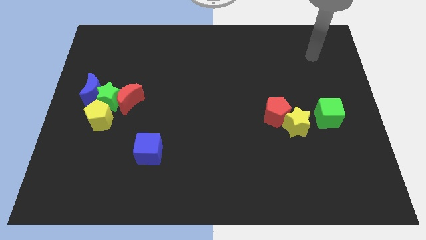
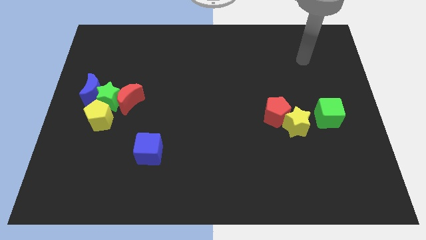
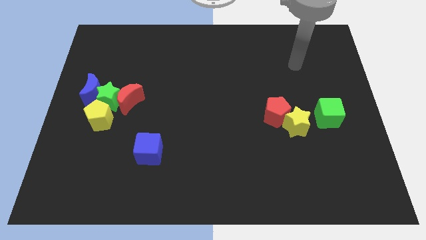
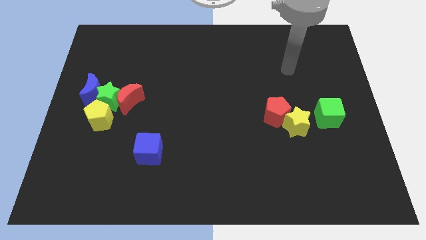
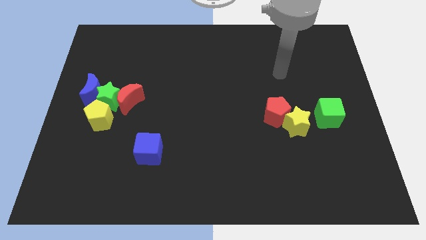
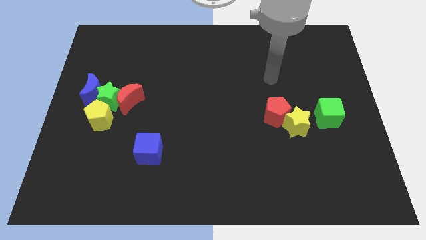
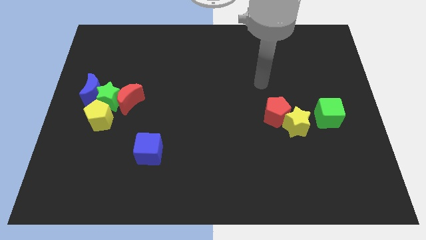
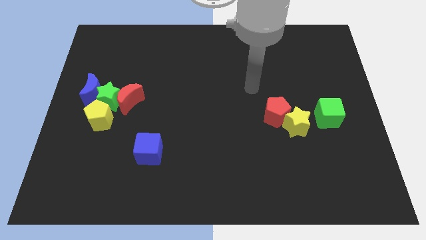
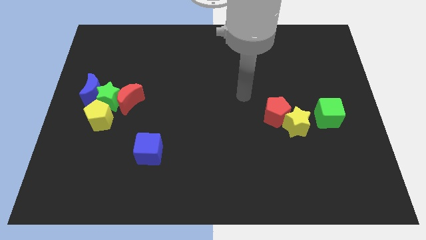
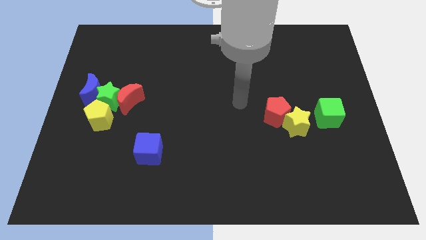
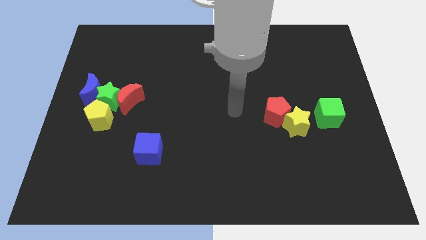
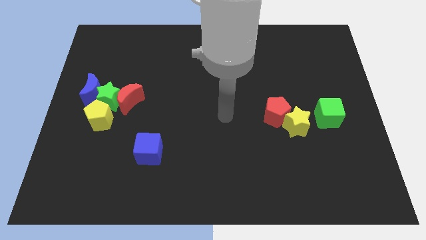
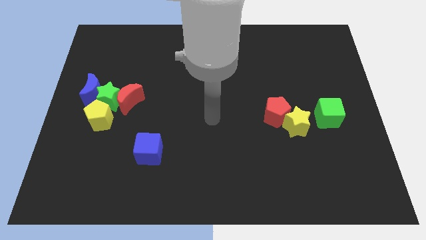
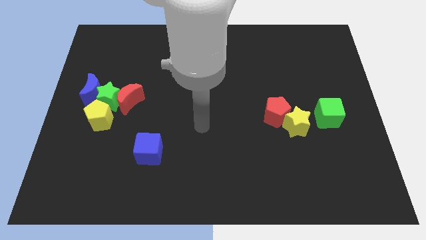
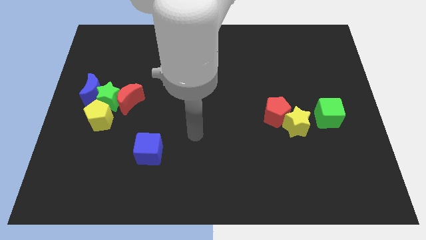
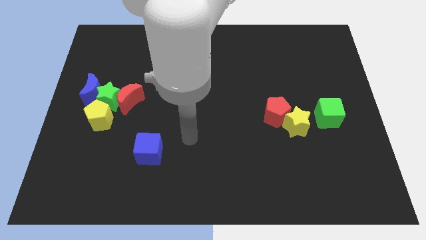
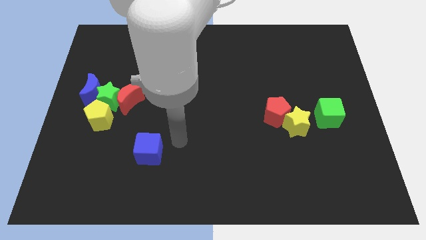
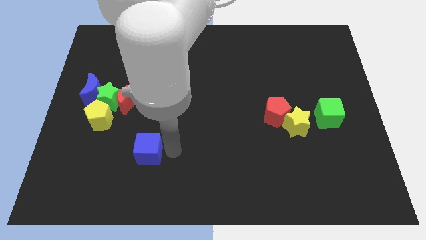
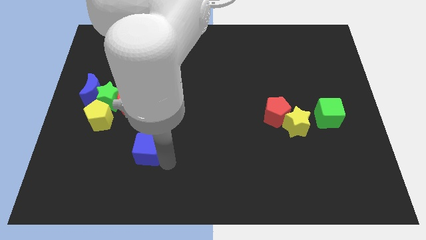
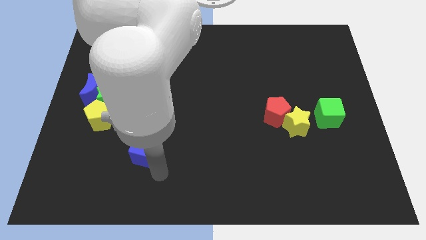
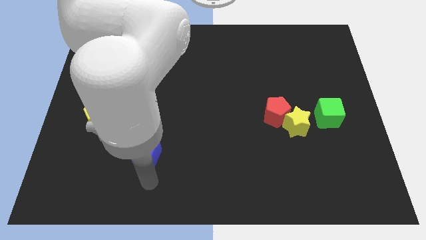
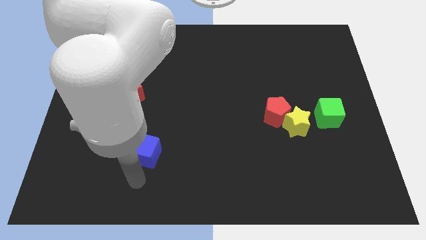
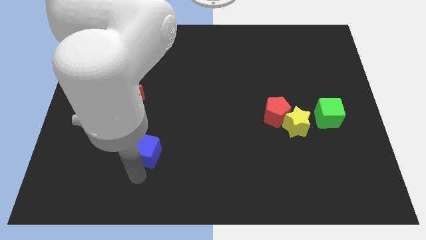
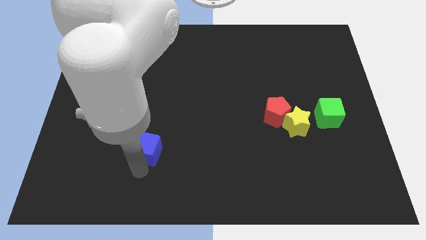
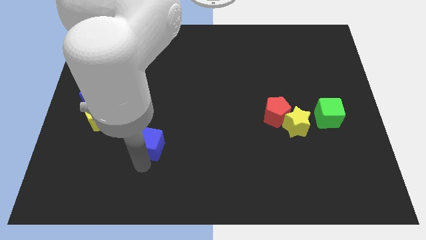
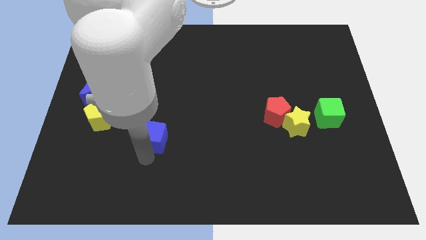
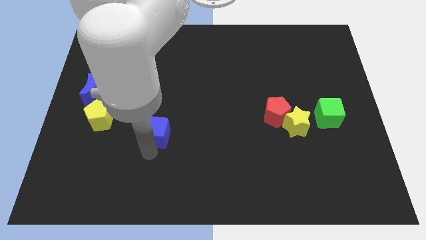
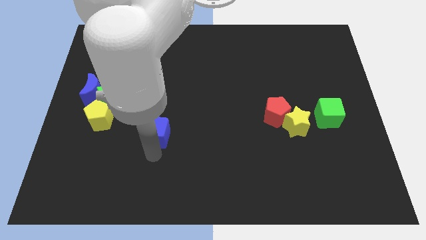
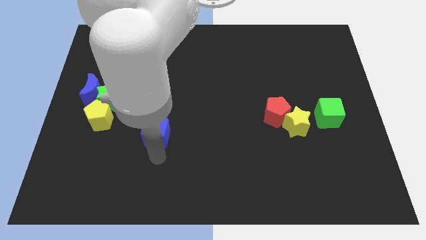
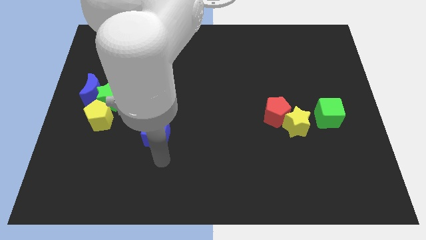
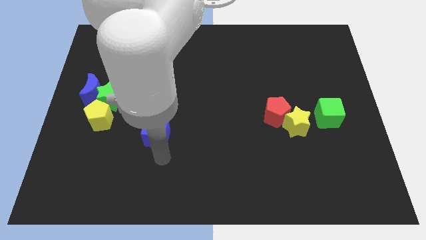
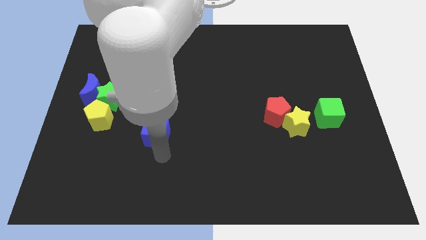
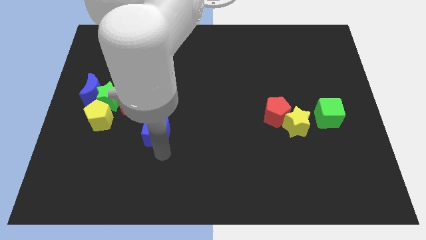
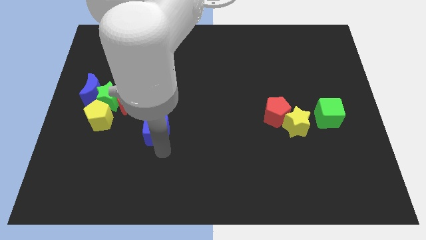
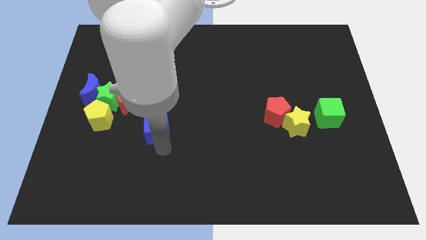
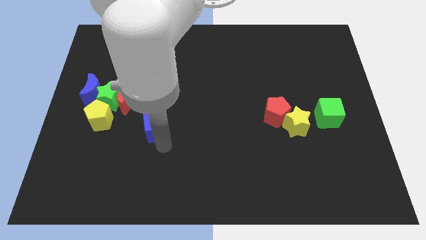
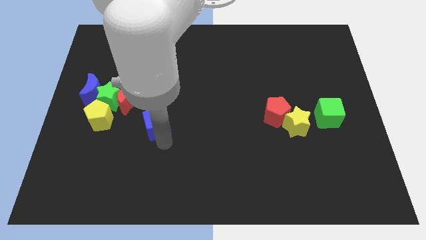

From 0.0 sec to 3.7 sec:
move the blue cube up a little

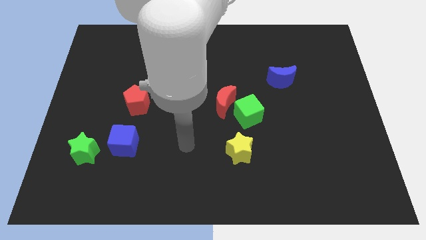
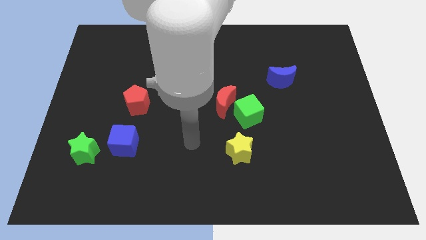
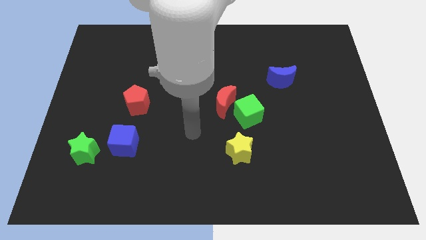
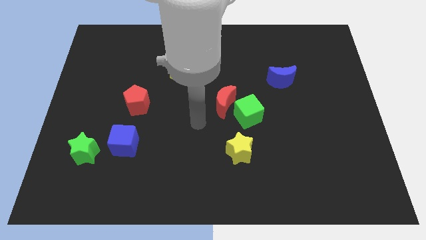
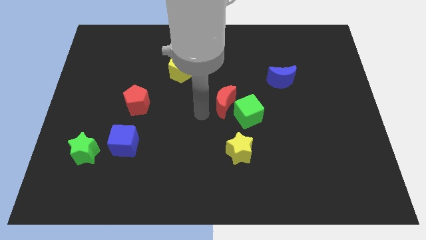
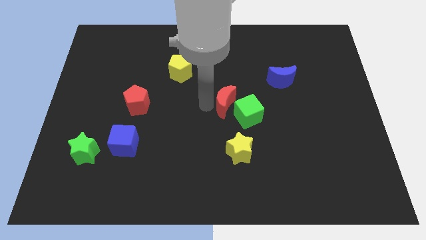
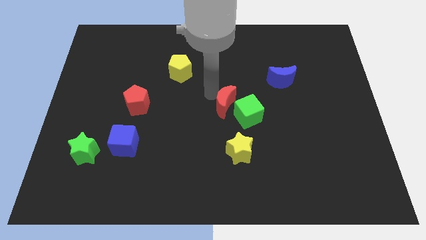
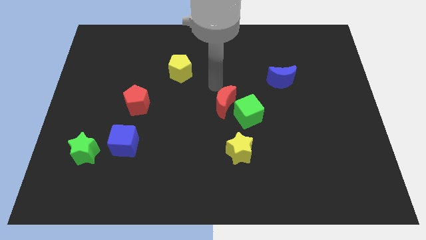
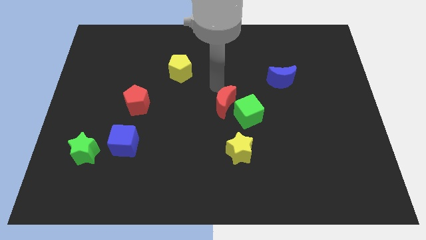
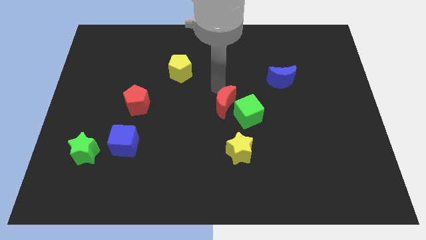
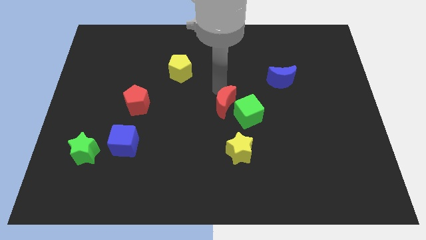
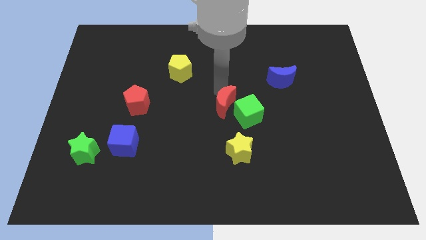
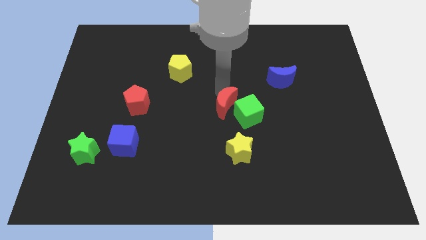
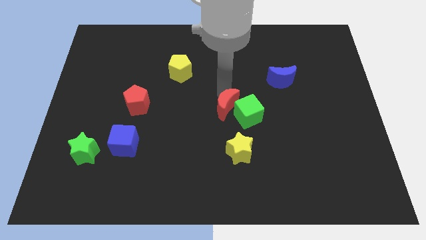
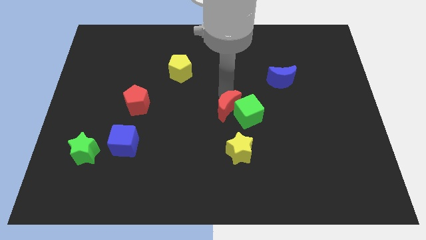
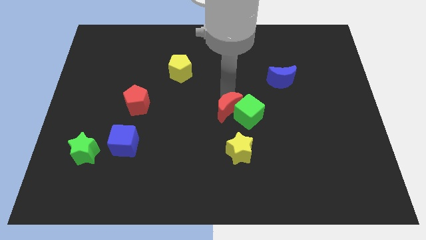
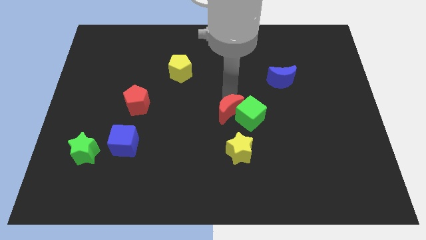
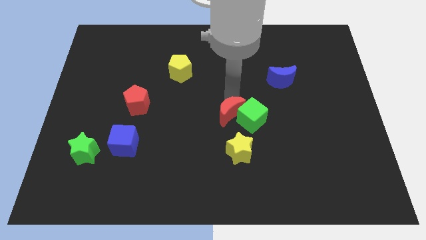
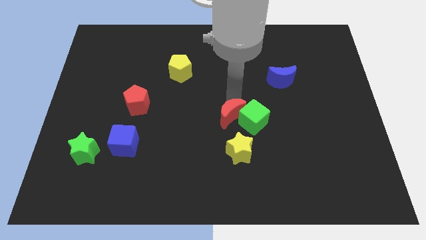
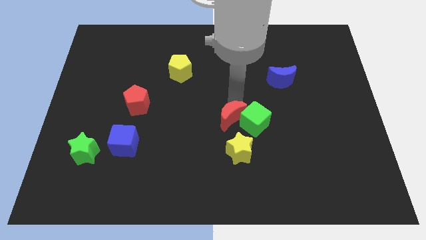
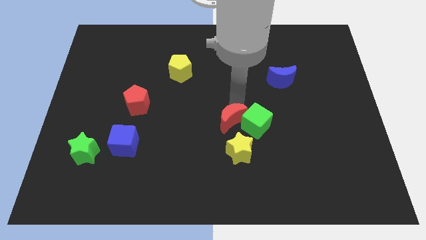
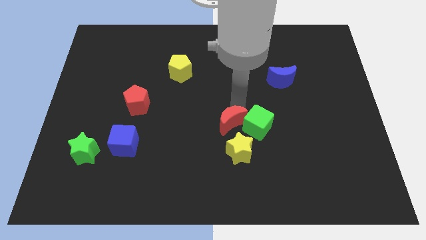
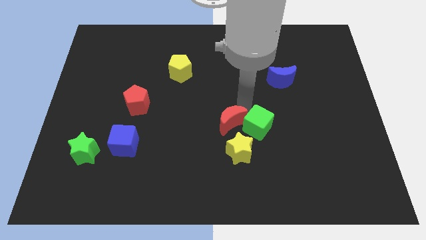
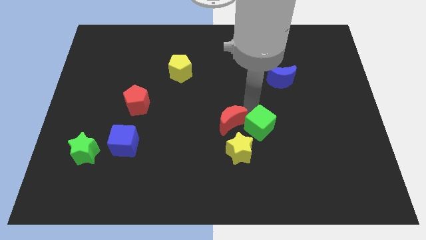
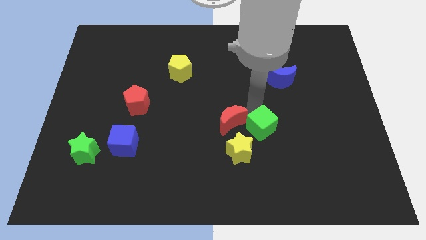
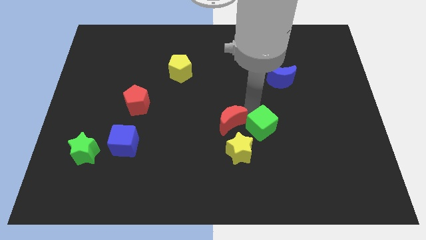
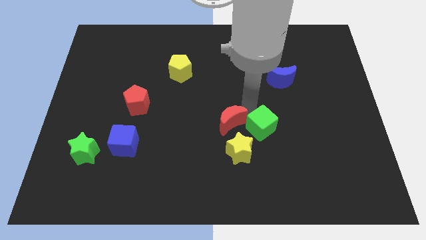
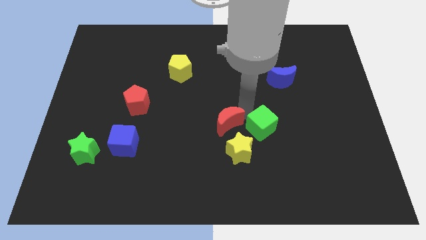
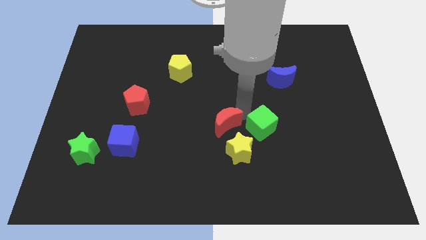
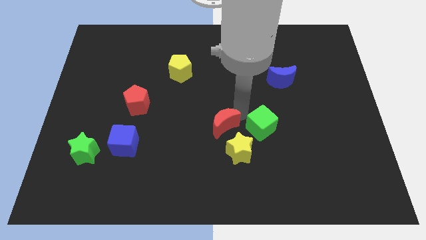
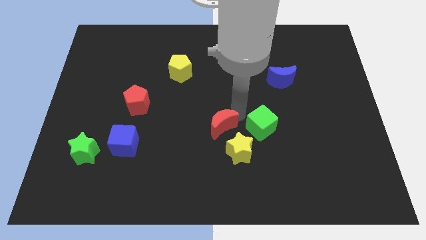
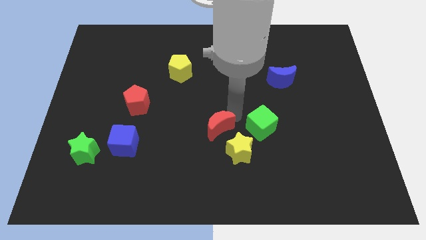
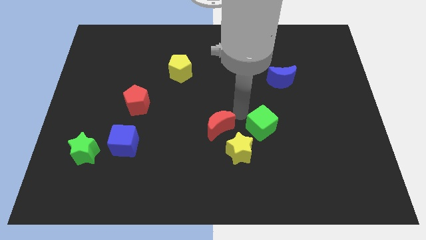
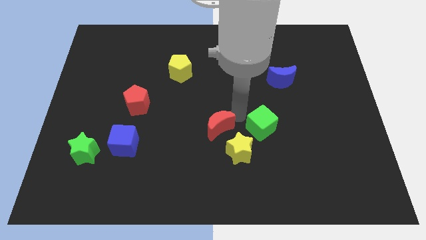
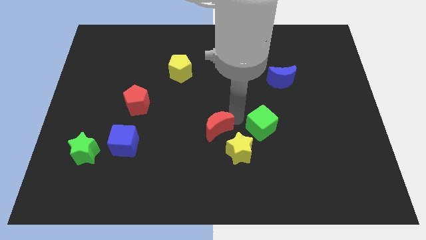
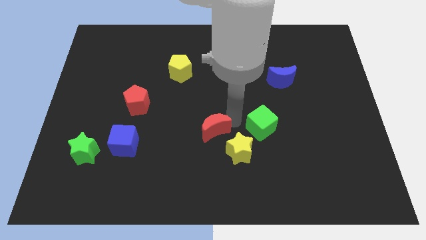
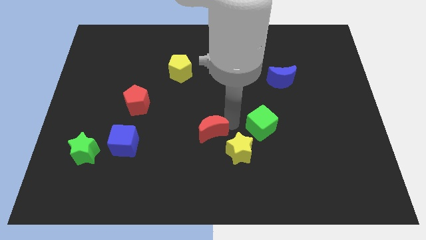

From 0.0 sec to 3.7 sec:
slide the red moon downwards and left slightly

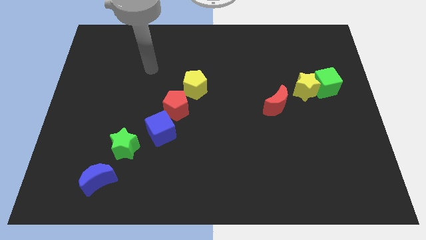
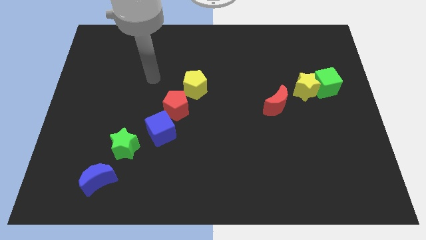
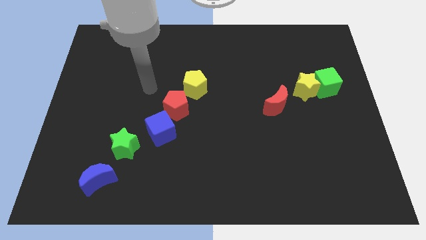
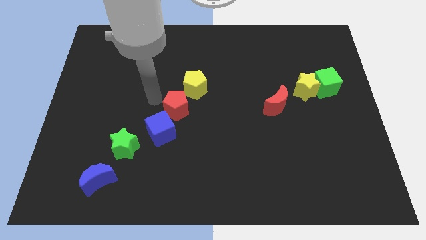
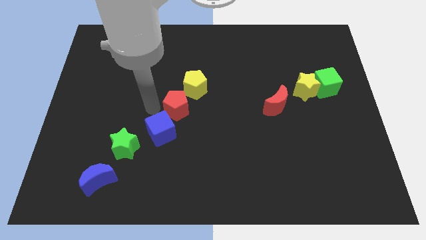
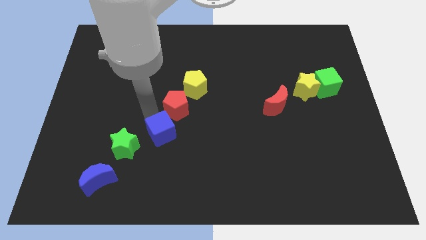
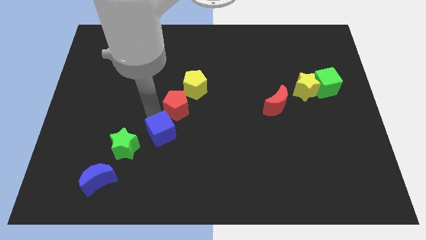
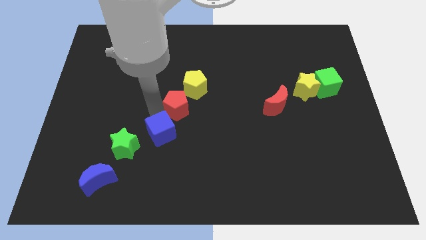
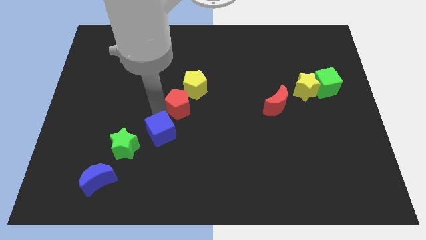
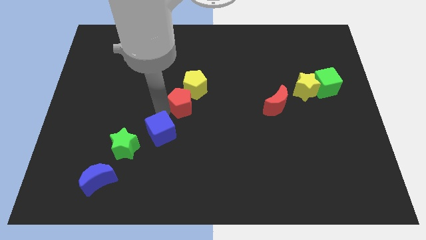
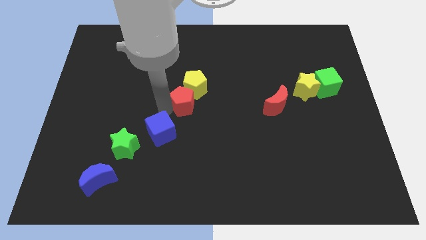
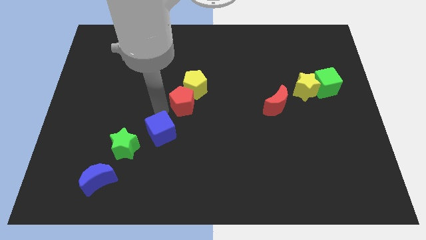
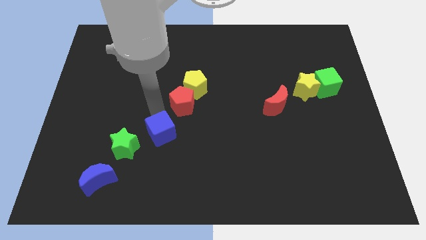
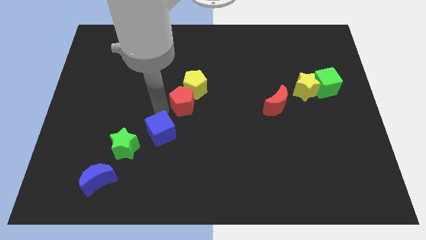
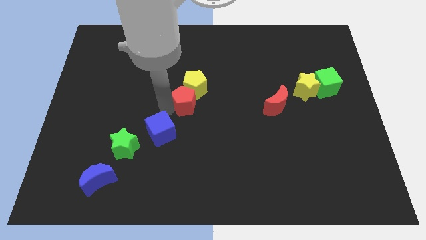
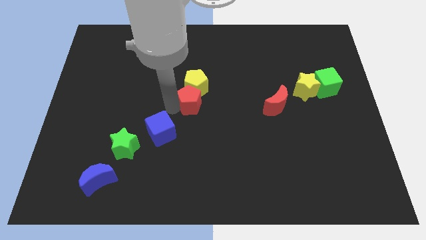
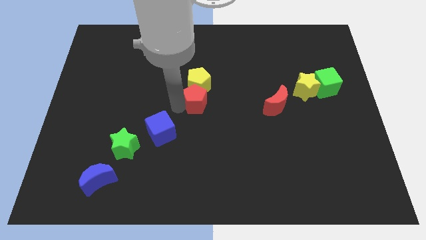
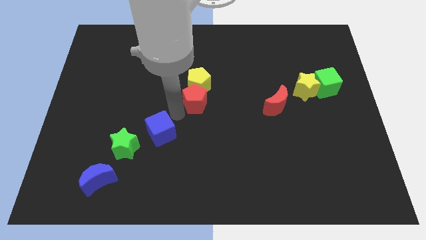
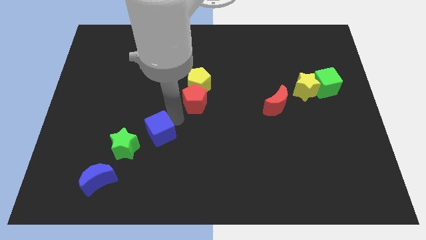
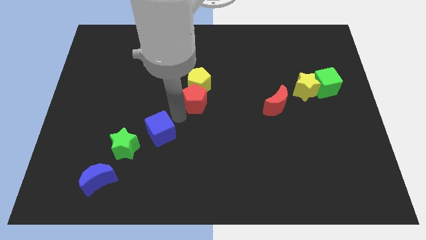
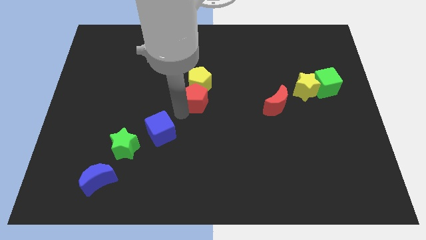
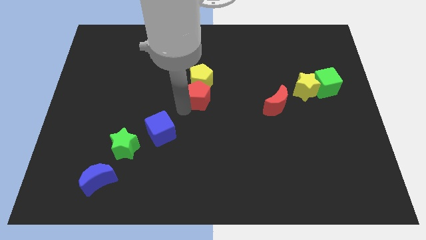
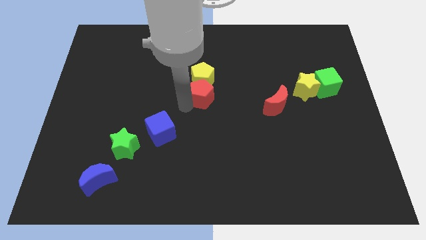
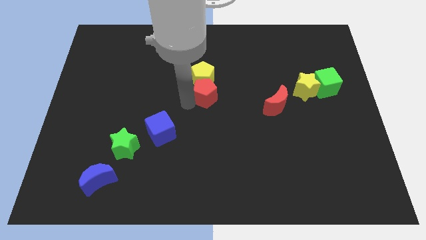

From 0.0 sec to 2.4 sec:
slide the red pentagon a bit up and to the right
